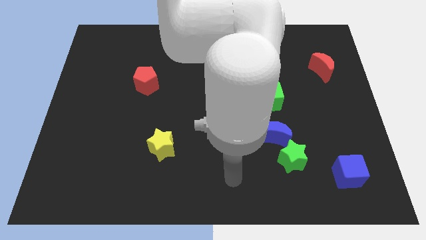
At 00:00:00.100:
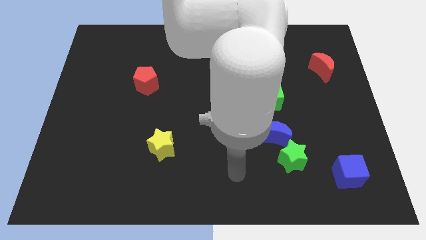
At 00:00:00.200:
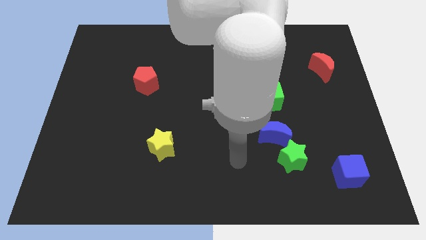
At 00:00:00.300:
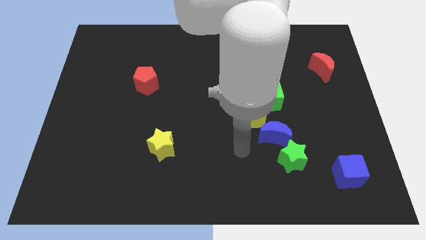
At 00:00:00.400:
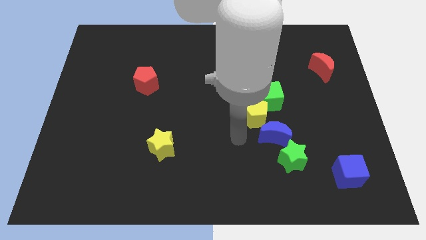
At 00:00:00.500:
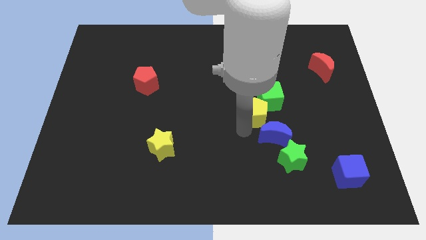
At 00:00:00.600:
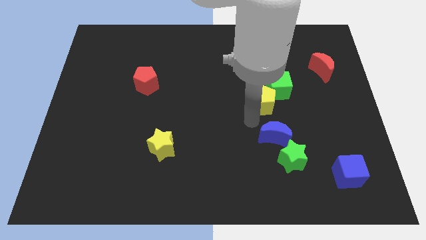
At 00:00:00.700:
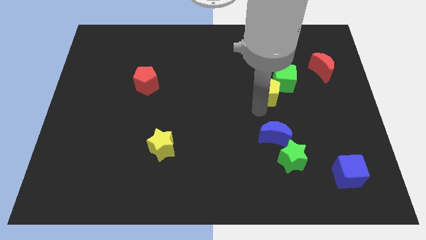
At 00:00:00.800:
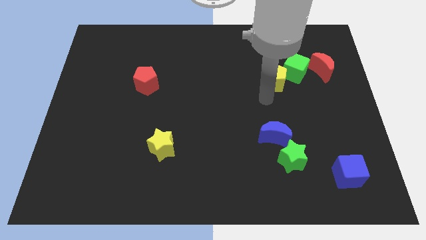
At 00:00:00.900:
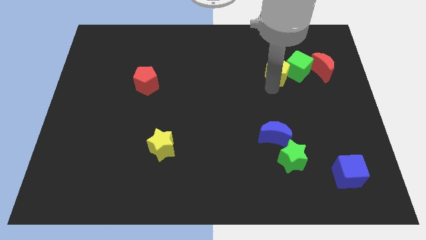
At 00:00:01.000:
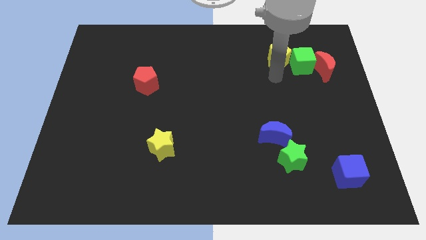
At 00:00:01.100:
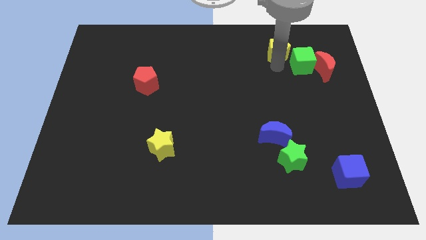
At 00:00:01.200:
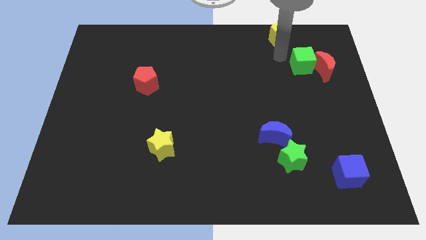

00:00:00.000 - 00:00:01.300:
separate the green cube from the yellow pentagon

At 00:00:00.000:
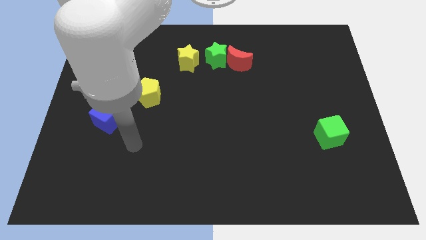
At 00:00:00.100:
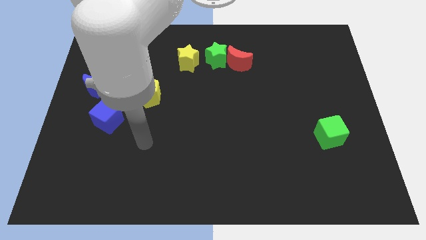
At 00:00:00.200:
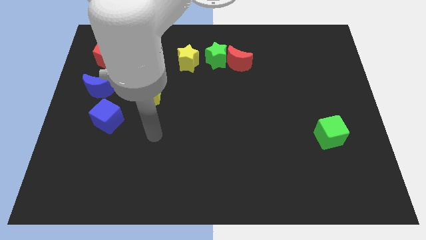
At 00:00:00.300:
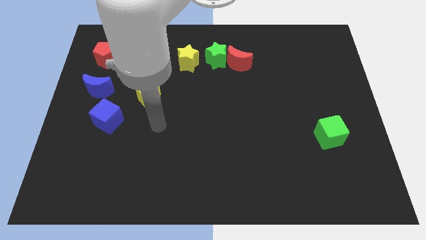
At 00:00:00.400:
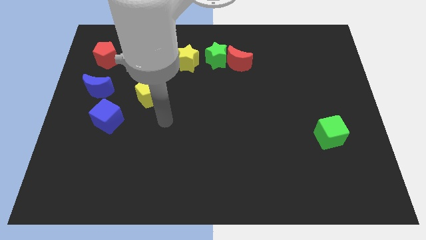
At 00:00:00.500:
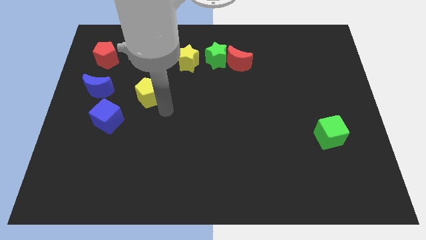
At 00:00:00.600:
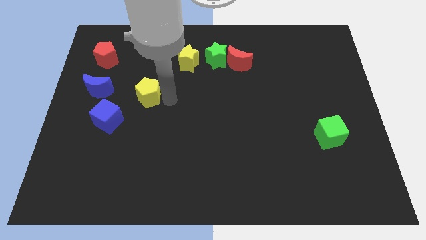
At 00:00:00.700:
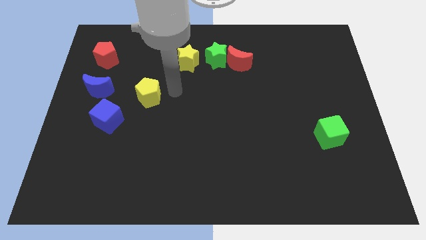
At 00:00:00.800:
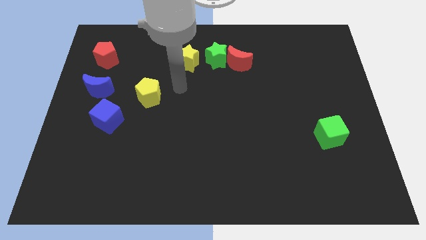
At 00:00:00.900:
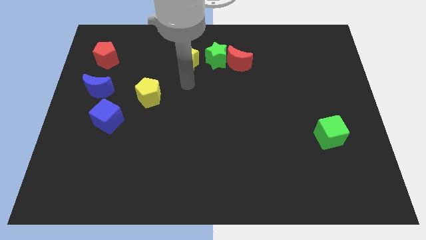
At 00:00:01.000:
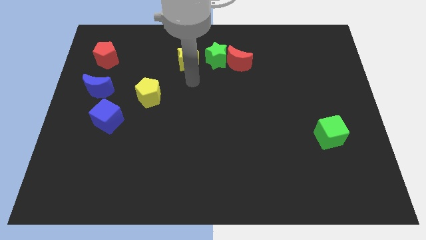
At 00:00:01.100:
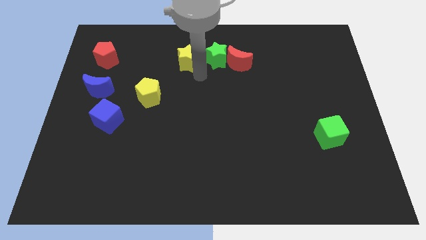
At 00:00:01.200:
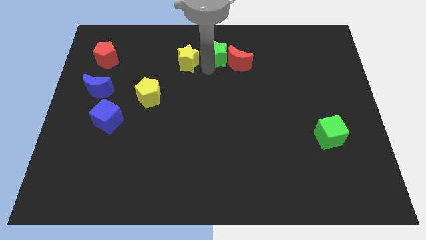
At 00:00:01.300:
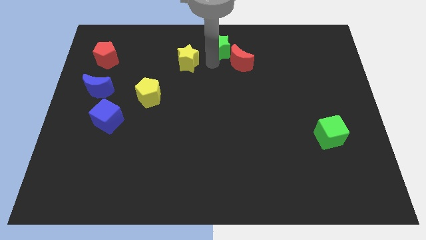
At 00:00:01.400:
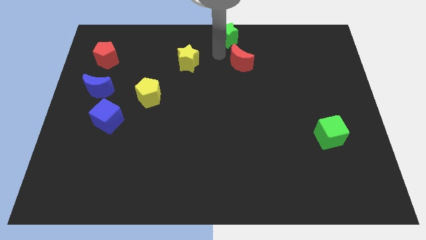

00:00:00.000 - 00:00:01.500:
pull the red moon apart from the green star

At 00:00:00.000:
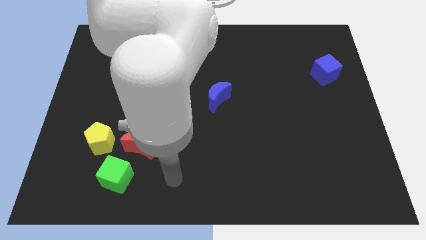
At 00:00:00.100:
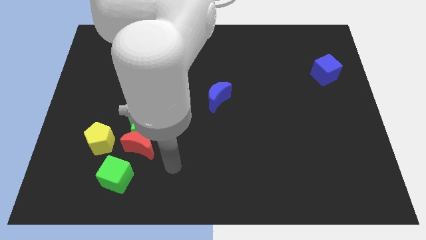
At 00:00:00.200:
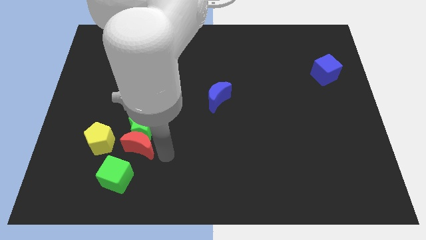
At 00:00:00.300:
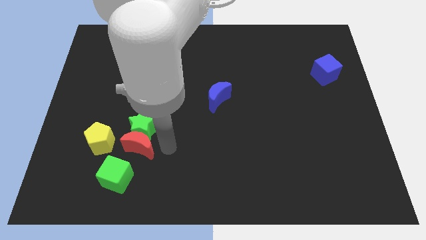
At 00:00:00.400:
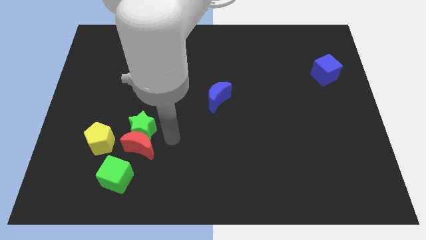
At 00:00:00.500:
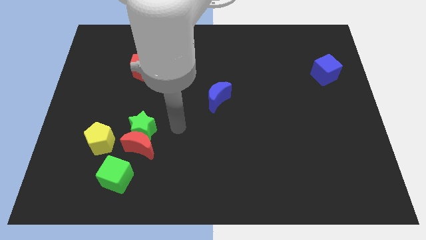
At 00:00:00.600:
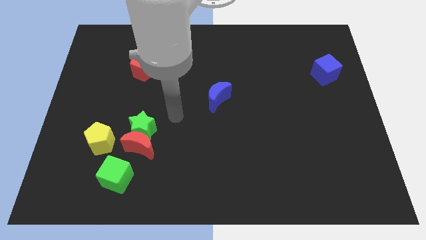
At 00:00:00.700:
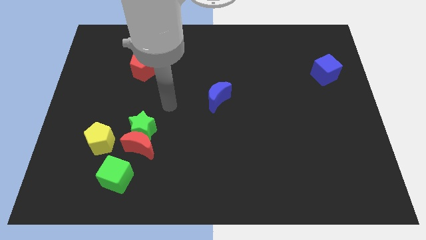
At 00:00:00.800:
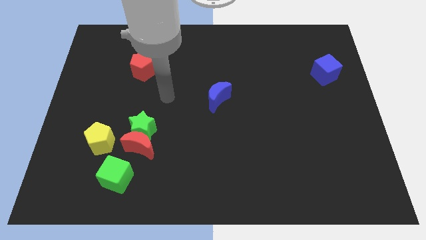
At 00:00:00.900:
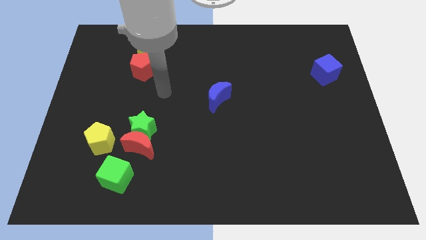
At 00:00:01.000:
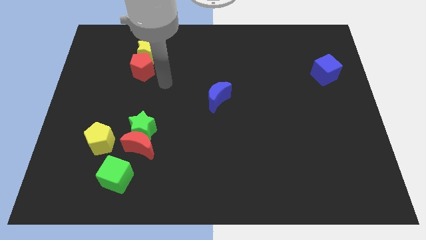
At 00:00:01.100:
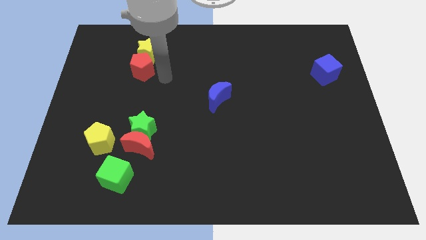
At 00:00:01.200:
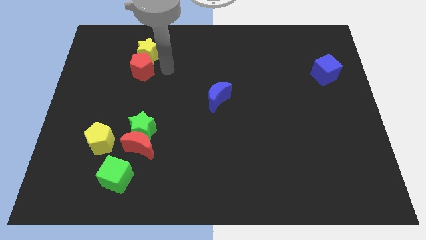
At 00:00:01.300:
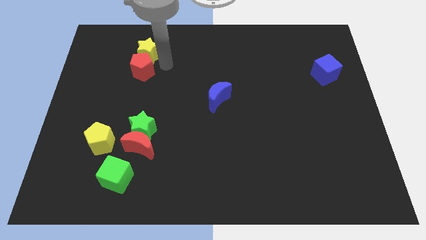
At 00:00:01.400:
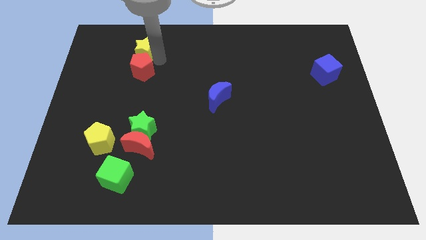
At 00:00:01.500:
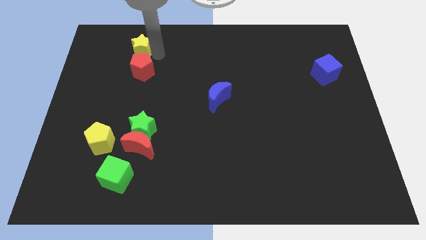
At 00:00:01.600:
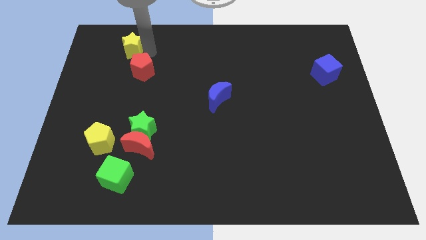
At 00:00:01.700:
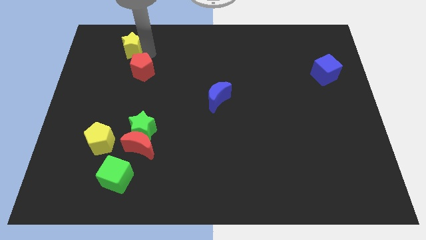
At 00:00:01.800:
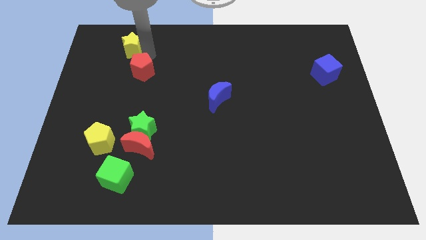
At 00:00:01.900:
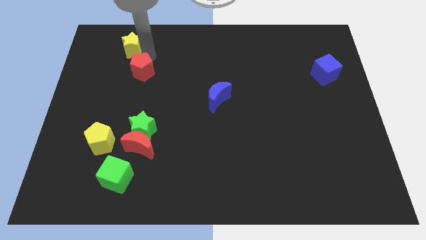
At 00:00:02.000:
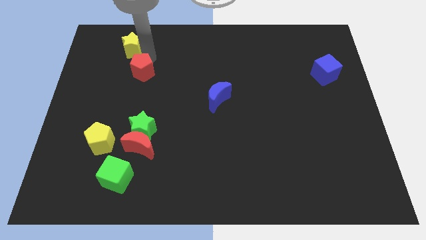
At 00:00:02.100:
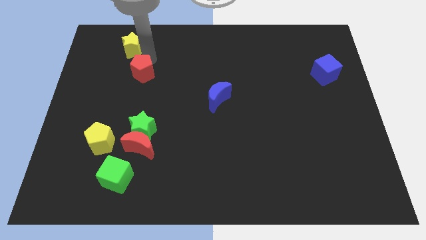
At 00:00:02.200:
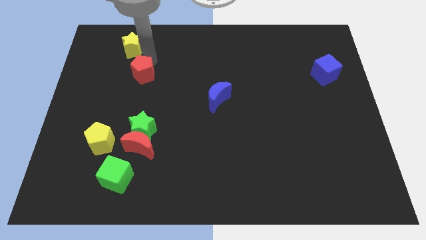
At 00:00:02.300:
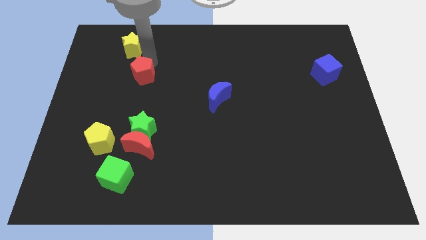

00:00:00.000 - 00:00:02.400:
pull the red pentagon apart from the yellow star

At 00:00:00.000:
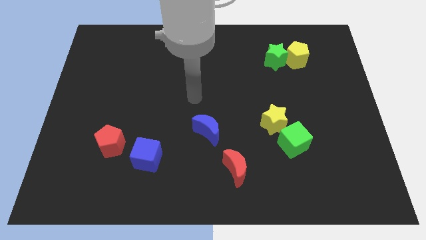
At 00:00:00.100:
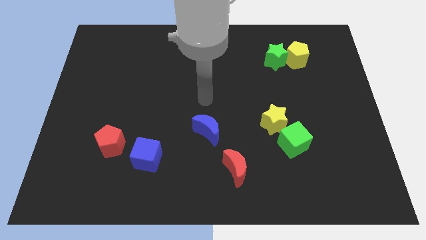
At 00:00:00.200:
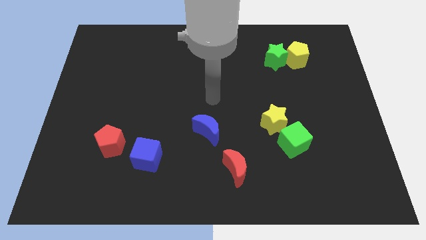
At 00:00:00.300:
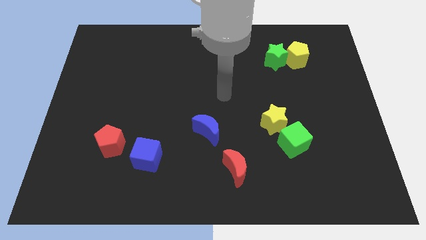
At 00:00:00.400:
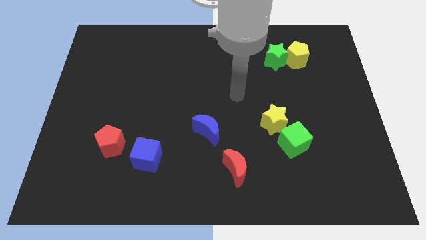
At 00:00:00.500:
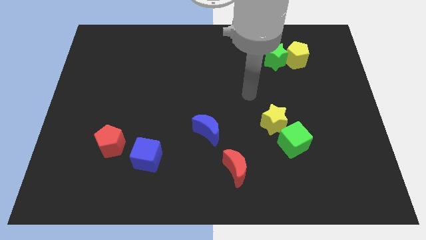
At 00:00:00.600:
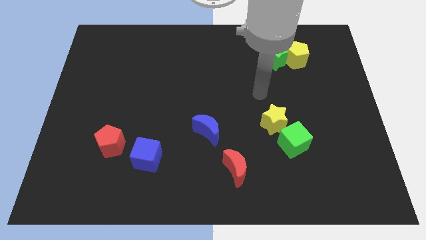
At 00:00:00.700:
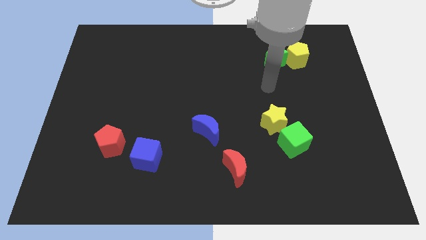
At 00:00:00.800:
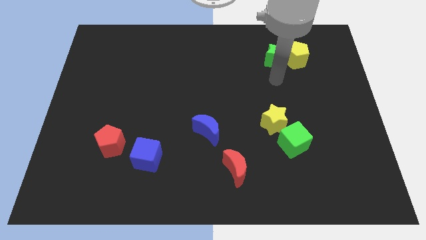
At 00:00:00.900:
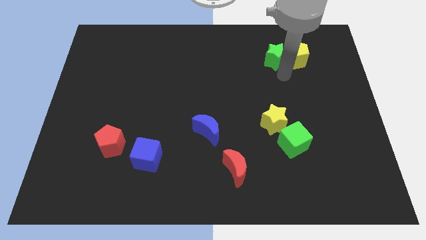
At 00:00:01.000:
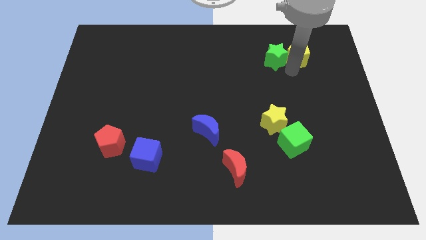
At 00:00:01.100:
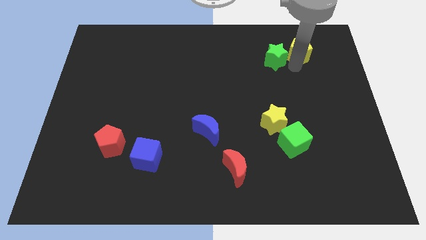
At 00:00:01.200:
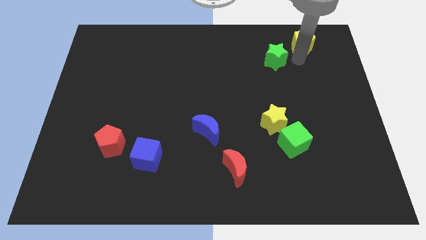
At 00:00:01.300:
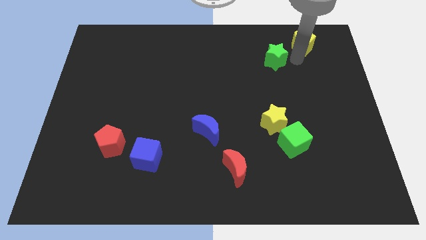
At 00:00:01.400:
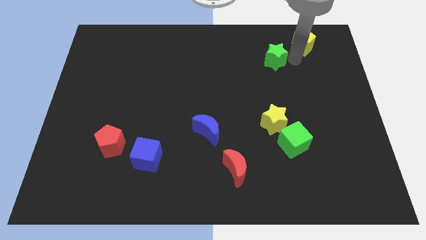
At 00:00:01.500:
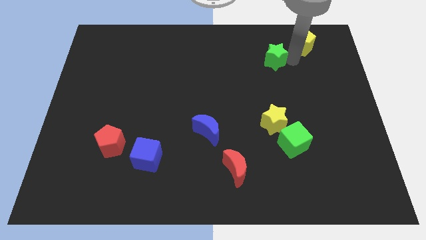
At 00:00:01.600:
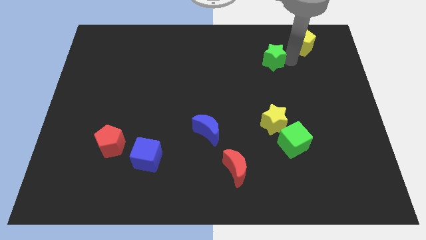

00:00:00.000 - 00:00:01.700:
pull the green star apart from the yellow pentagon

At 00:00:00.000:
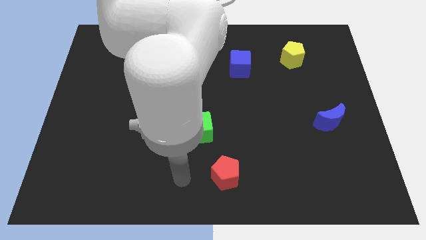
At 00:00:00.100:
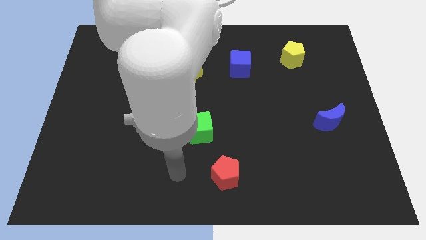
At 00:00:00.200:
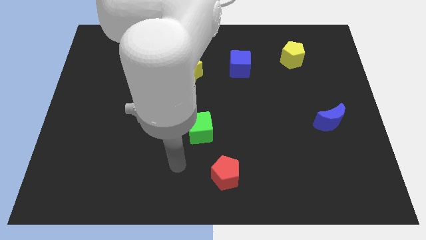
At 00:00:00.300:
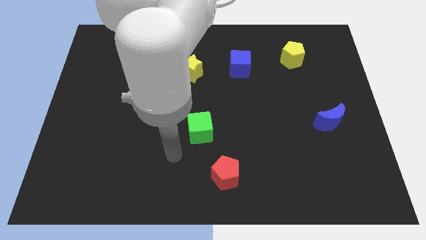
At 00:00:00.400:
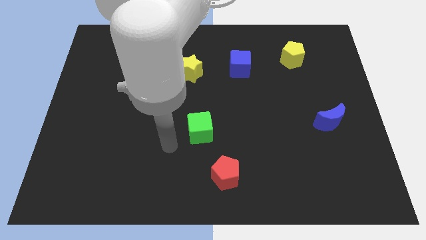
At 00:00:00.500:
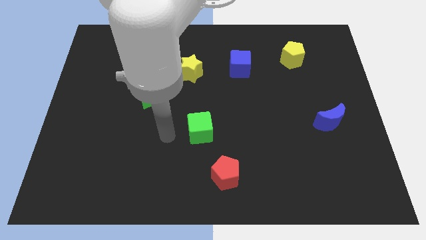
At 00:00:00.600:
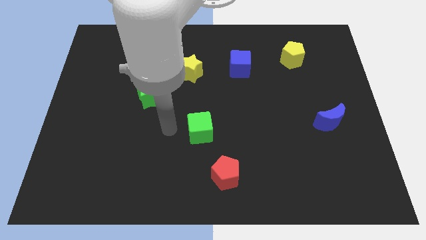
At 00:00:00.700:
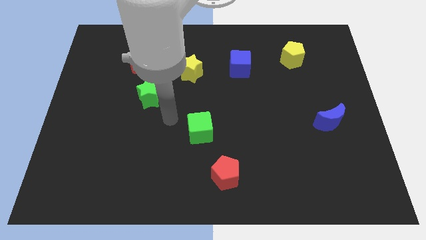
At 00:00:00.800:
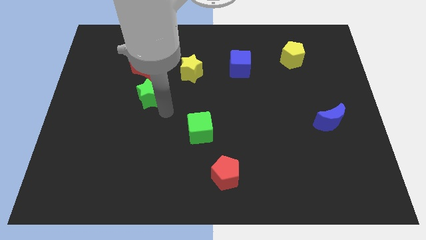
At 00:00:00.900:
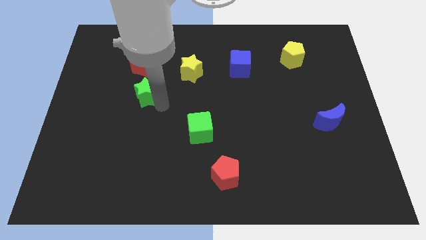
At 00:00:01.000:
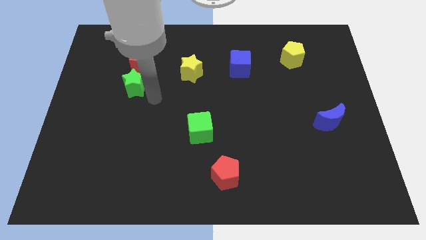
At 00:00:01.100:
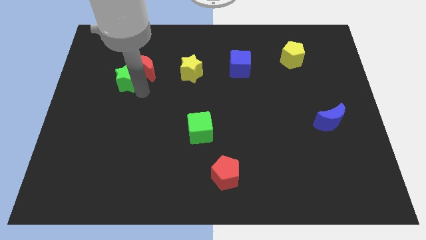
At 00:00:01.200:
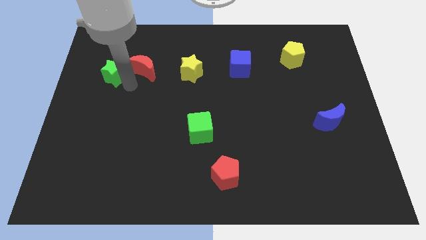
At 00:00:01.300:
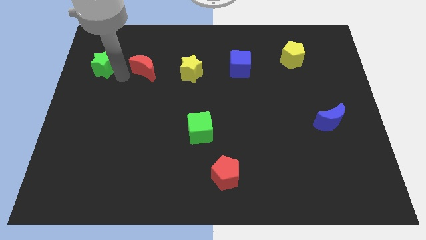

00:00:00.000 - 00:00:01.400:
move the red moon away from the green star

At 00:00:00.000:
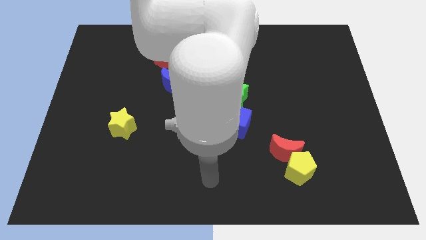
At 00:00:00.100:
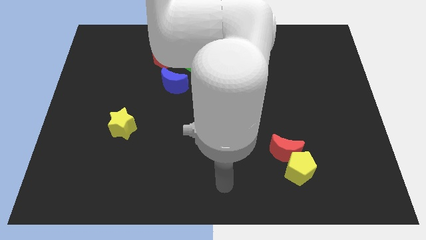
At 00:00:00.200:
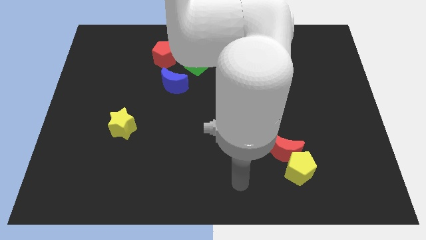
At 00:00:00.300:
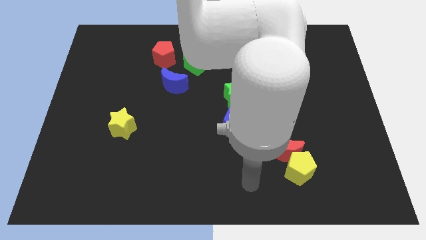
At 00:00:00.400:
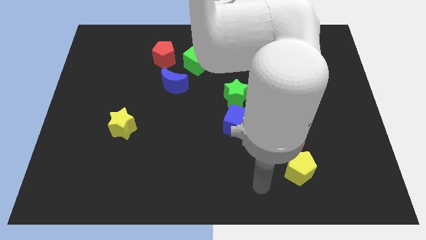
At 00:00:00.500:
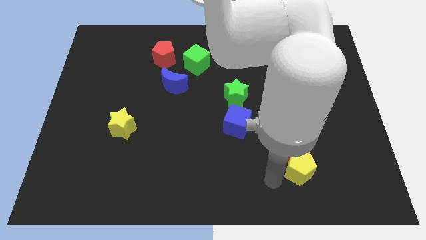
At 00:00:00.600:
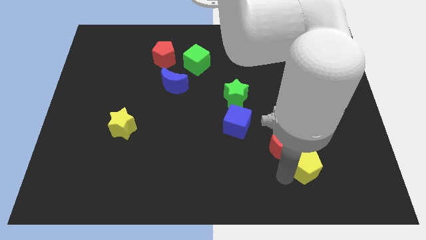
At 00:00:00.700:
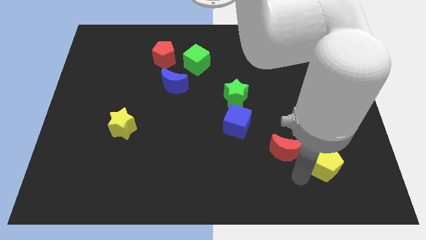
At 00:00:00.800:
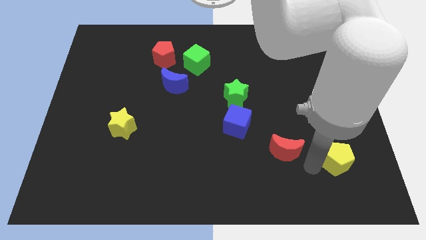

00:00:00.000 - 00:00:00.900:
separate the red moon from the yellow pentagon
